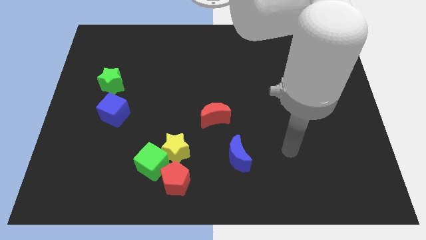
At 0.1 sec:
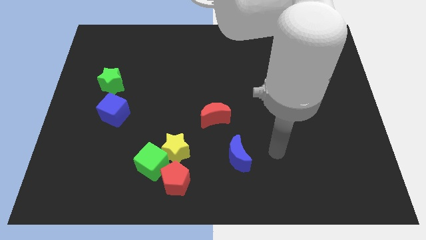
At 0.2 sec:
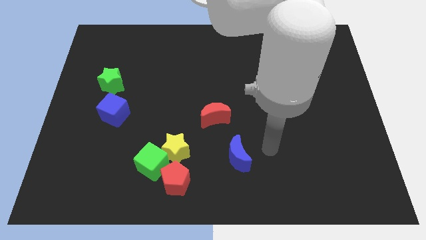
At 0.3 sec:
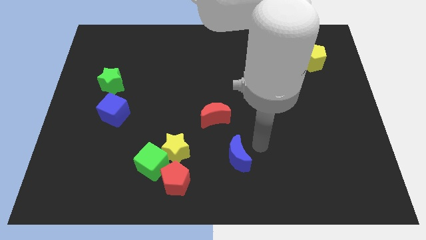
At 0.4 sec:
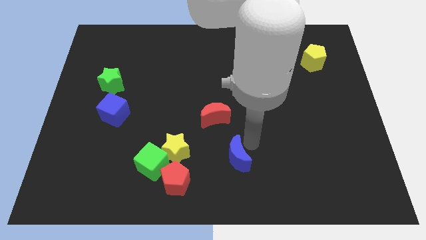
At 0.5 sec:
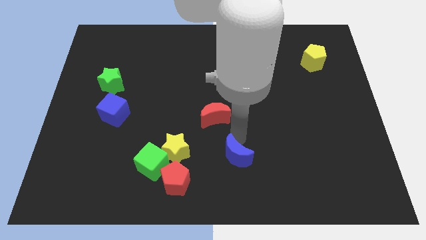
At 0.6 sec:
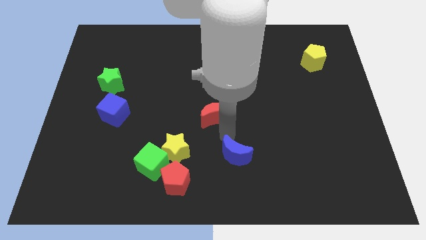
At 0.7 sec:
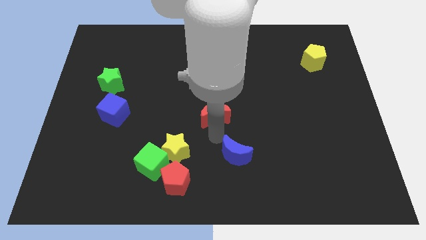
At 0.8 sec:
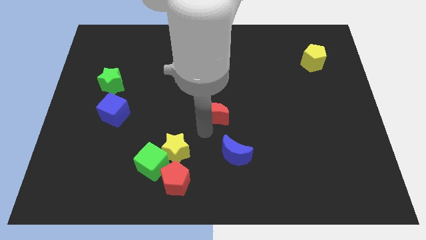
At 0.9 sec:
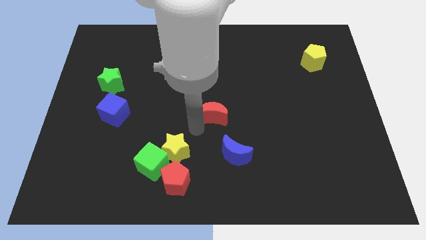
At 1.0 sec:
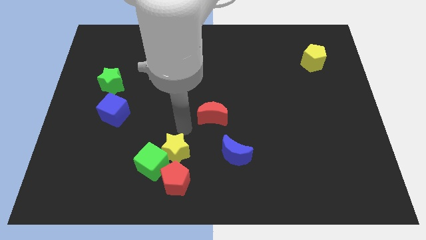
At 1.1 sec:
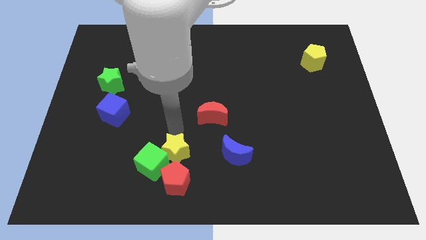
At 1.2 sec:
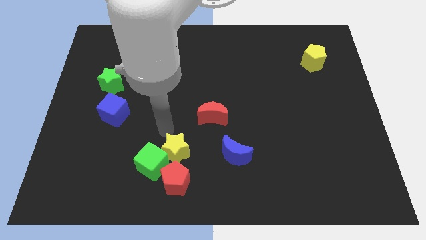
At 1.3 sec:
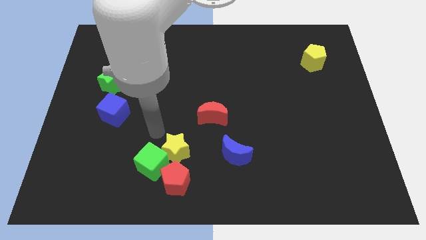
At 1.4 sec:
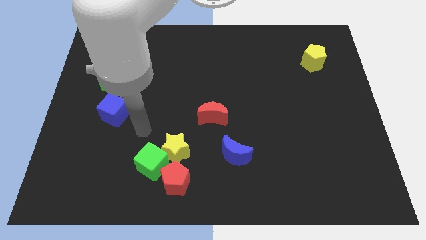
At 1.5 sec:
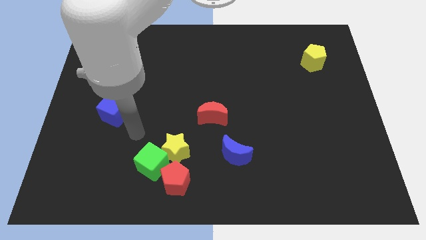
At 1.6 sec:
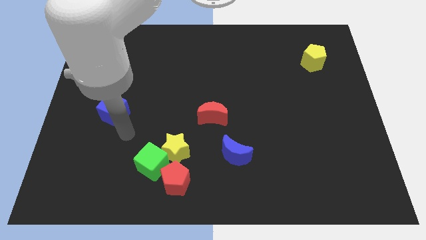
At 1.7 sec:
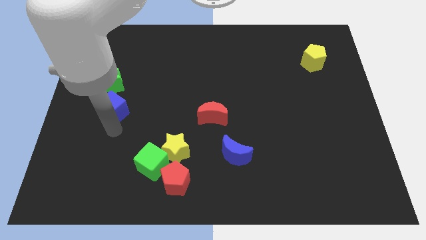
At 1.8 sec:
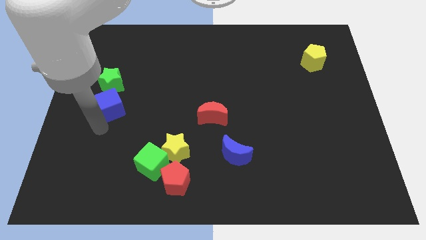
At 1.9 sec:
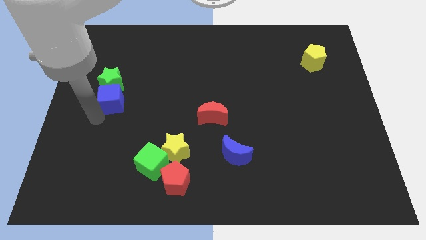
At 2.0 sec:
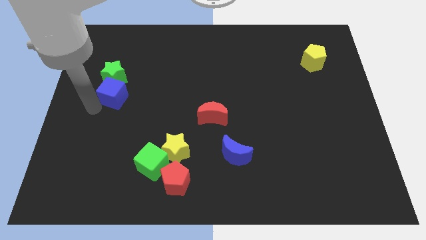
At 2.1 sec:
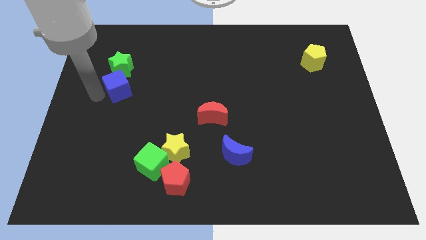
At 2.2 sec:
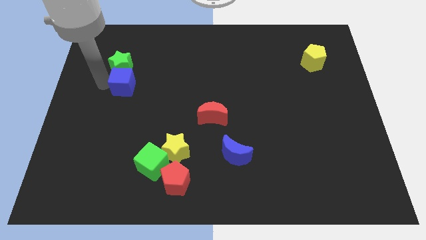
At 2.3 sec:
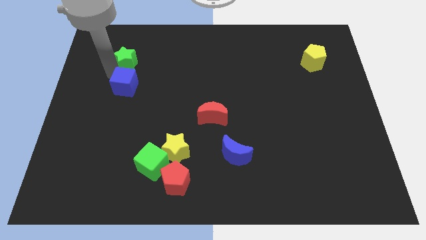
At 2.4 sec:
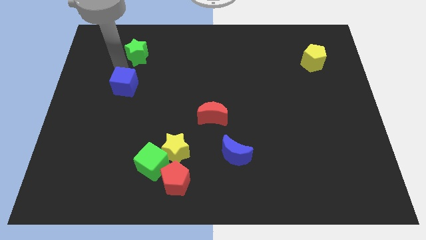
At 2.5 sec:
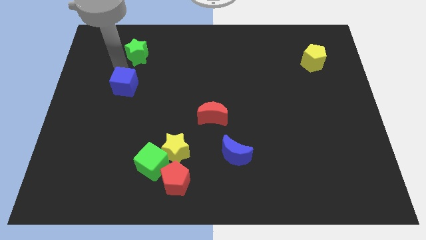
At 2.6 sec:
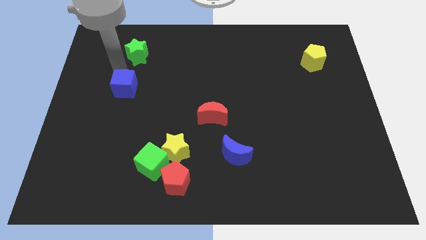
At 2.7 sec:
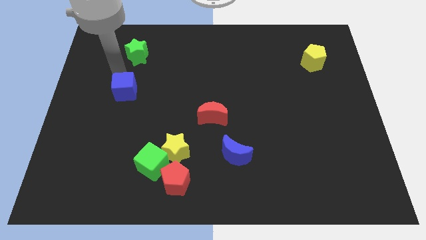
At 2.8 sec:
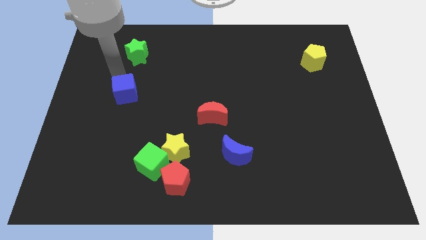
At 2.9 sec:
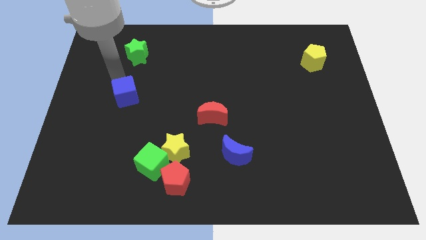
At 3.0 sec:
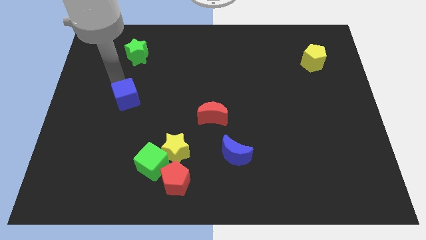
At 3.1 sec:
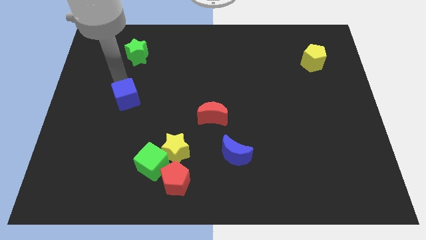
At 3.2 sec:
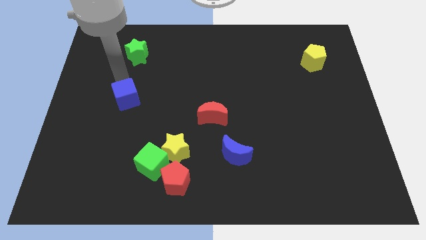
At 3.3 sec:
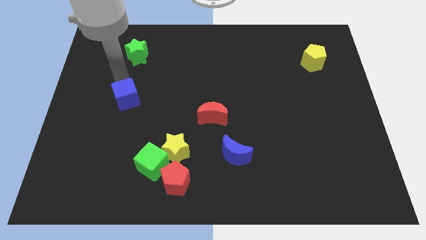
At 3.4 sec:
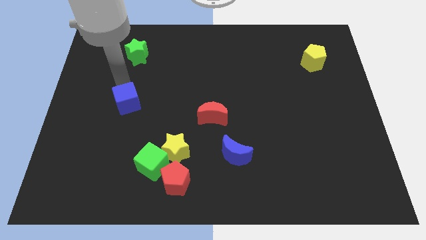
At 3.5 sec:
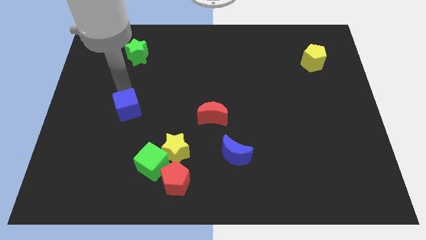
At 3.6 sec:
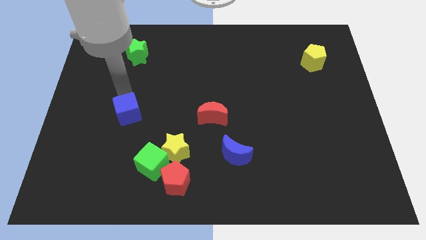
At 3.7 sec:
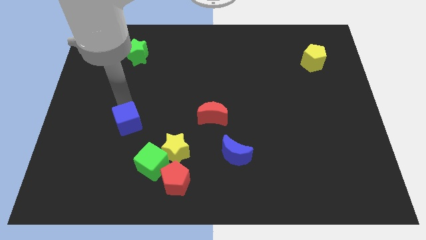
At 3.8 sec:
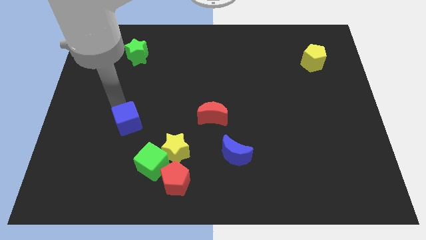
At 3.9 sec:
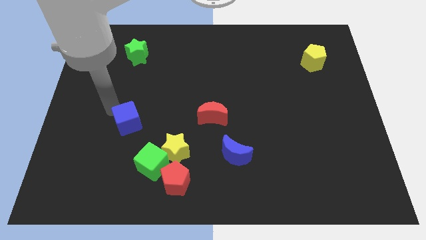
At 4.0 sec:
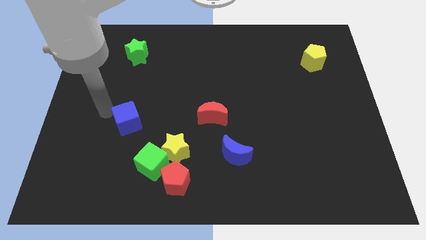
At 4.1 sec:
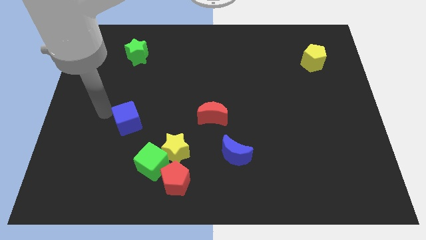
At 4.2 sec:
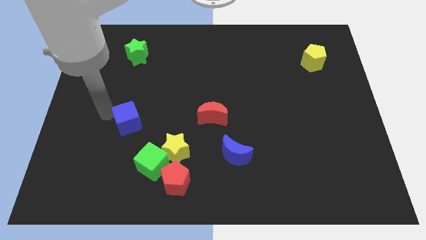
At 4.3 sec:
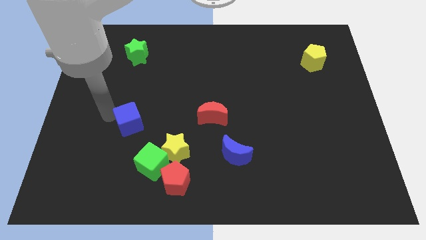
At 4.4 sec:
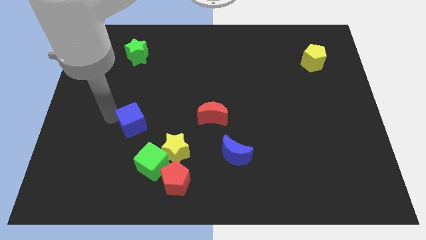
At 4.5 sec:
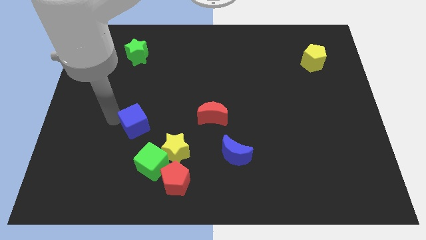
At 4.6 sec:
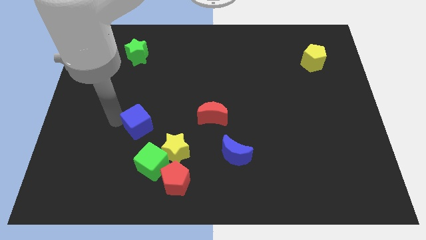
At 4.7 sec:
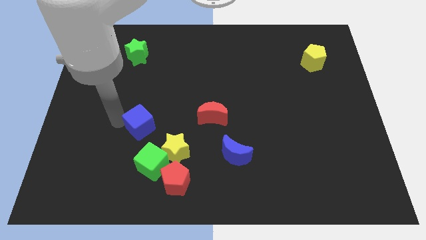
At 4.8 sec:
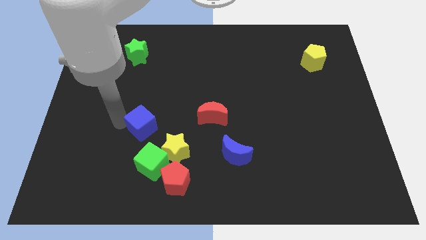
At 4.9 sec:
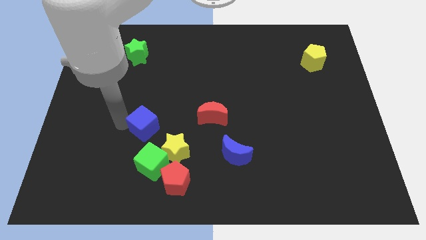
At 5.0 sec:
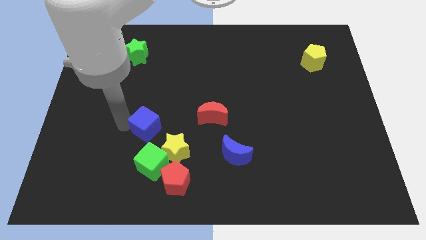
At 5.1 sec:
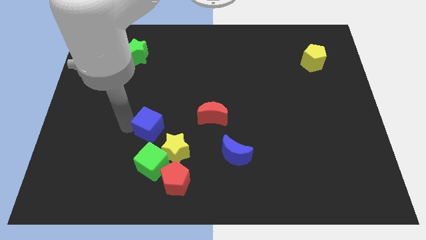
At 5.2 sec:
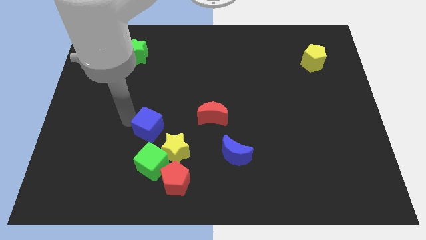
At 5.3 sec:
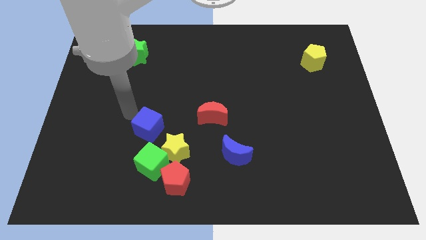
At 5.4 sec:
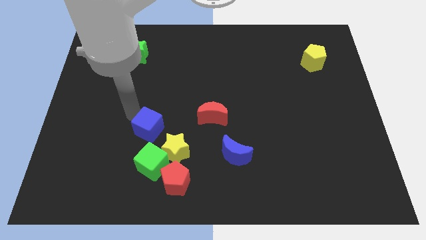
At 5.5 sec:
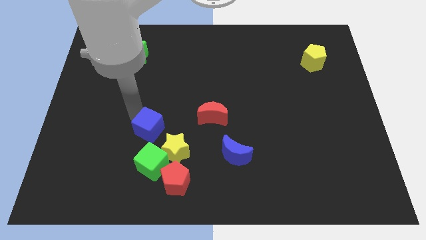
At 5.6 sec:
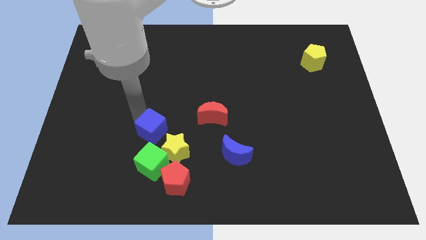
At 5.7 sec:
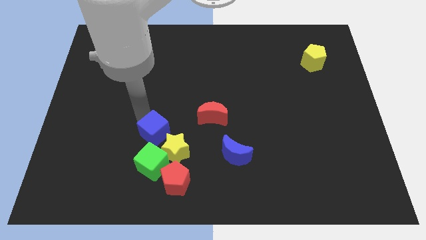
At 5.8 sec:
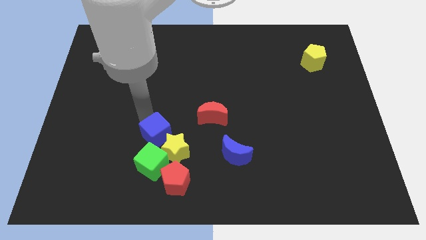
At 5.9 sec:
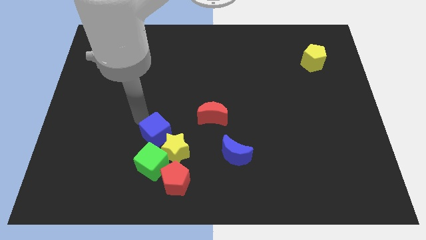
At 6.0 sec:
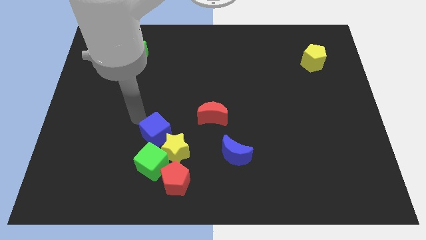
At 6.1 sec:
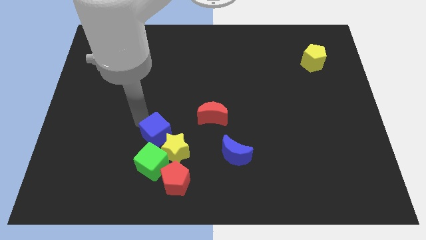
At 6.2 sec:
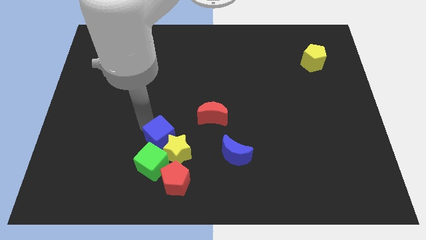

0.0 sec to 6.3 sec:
slide the blue cube to the yellow star

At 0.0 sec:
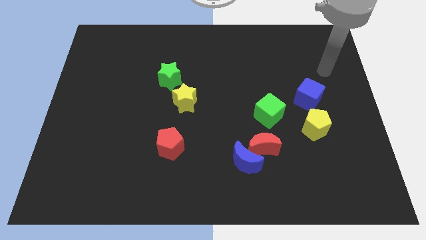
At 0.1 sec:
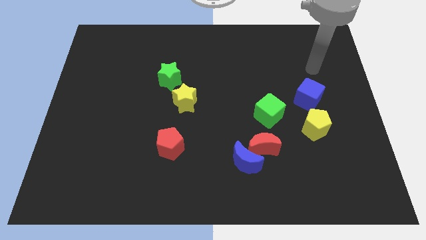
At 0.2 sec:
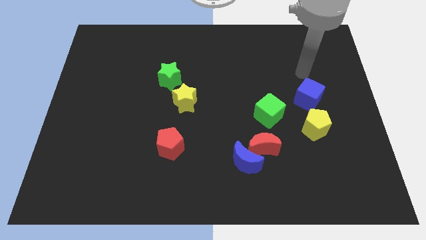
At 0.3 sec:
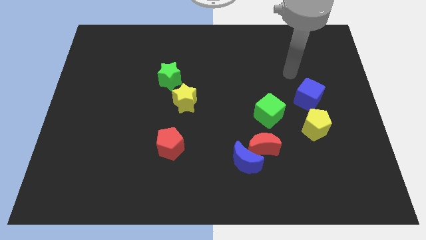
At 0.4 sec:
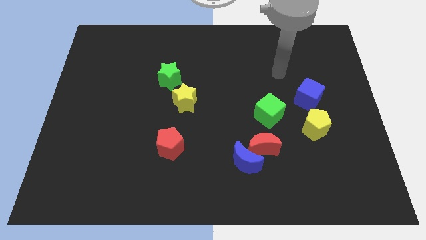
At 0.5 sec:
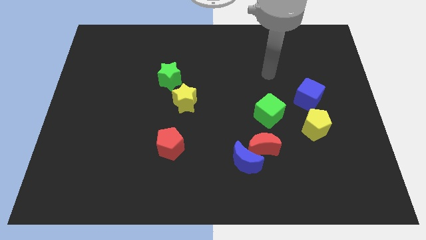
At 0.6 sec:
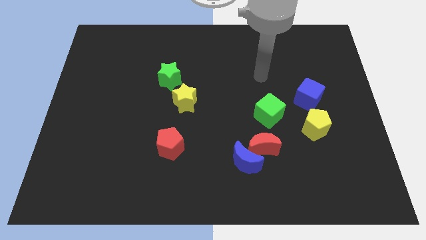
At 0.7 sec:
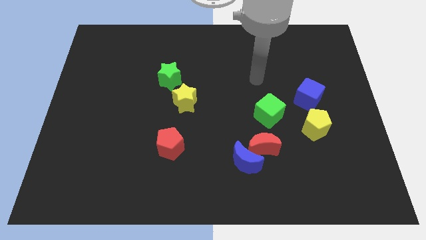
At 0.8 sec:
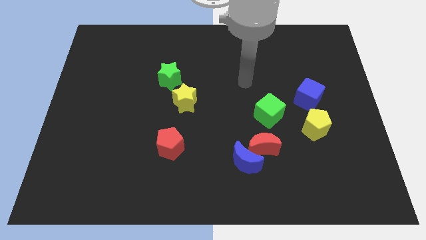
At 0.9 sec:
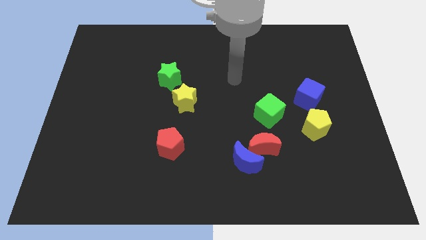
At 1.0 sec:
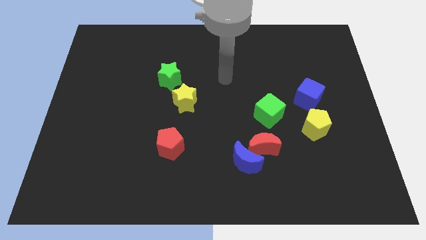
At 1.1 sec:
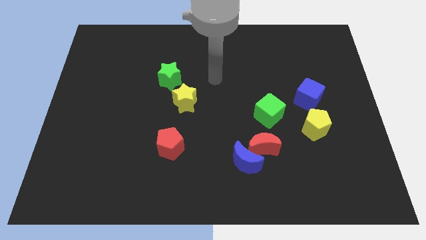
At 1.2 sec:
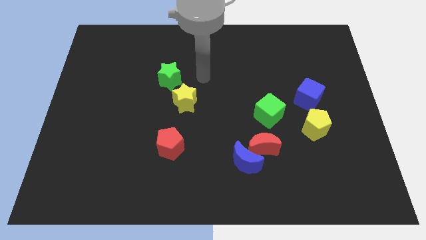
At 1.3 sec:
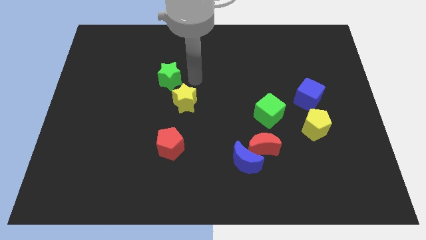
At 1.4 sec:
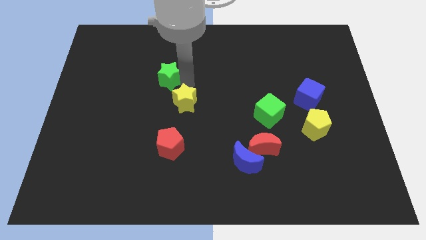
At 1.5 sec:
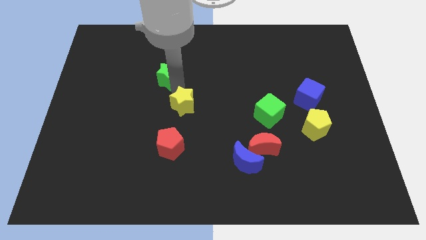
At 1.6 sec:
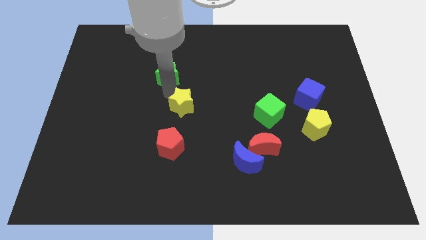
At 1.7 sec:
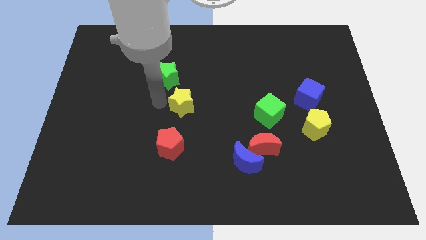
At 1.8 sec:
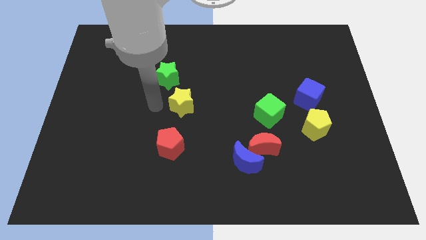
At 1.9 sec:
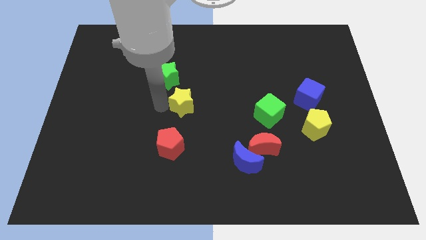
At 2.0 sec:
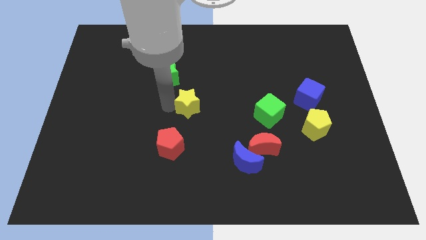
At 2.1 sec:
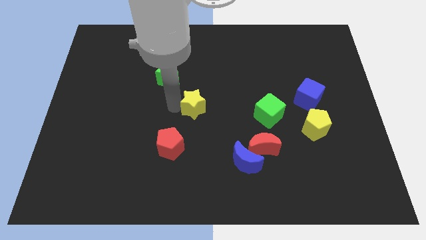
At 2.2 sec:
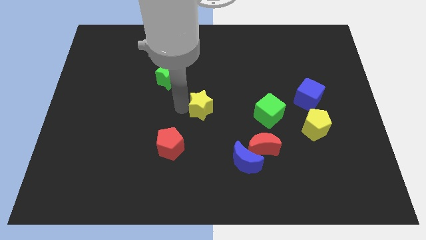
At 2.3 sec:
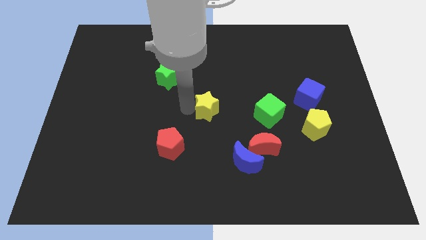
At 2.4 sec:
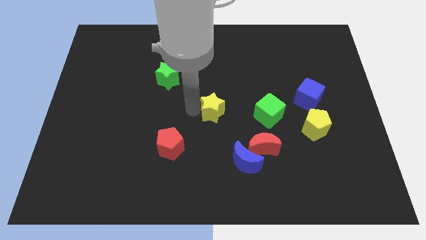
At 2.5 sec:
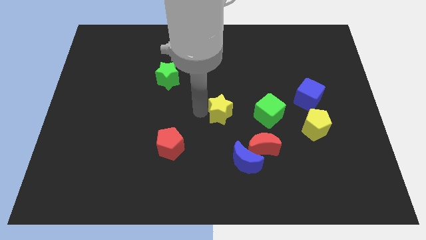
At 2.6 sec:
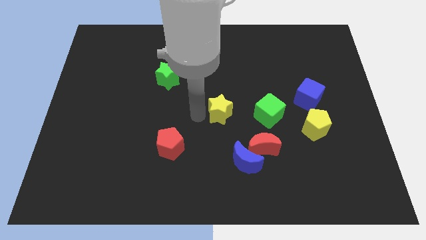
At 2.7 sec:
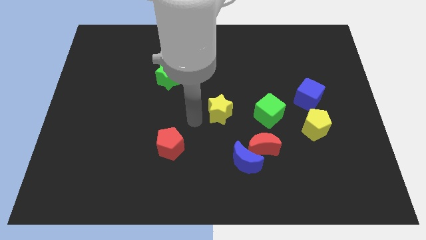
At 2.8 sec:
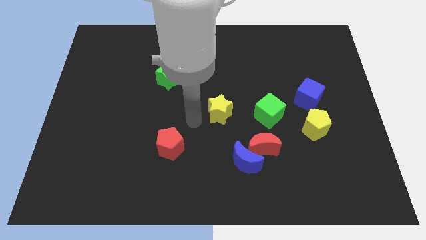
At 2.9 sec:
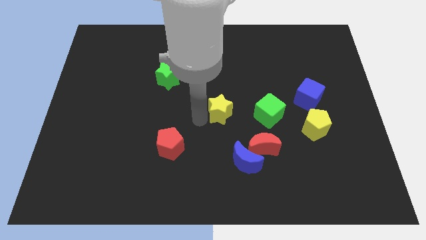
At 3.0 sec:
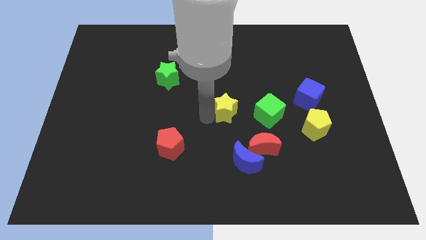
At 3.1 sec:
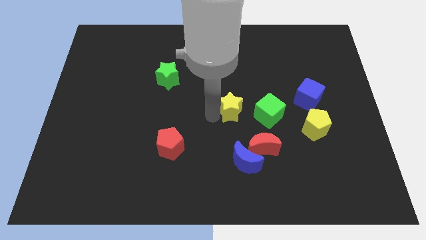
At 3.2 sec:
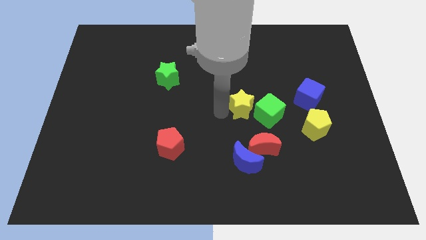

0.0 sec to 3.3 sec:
slide the yellow star next to the green cube
